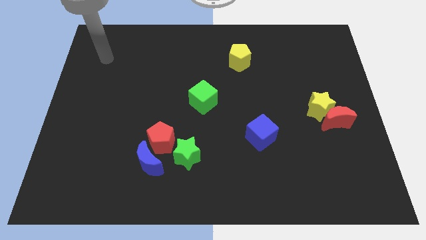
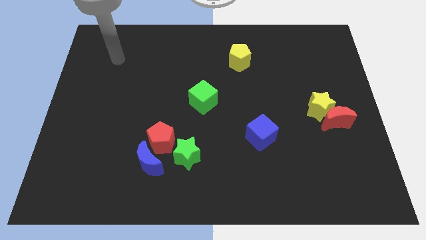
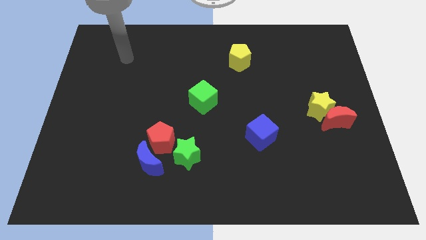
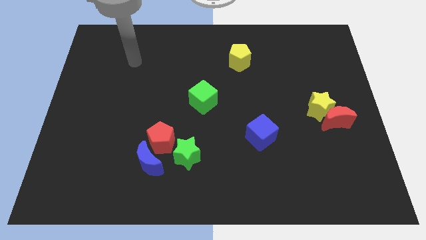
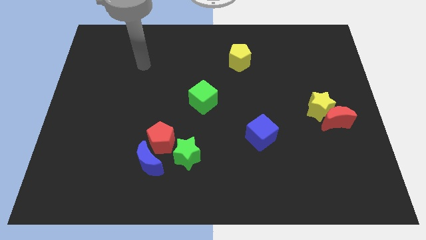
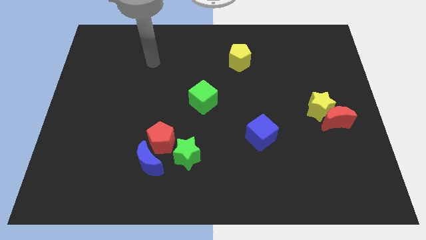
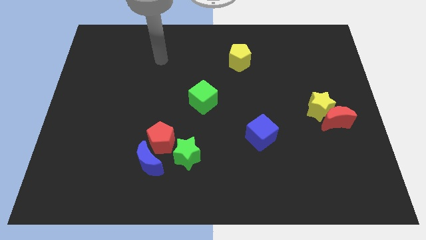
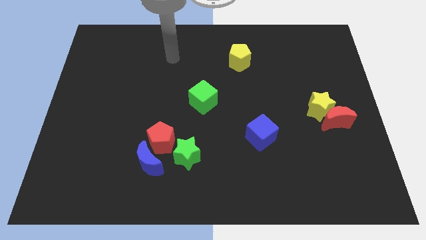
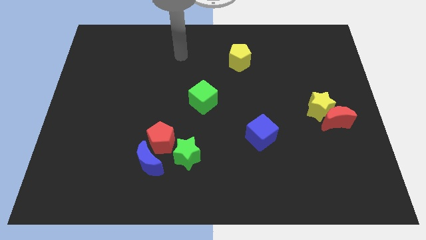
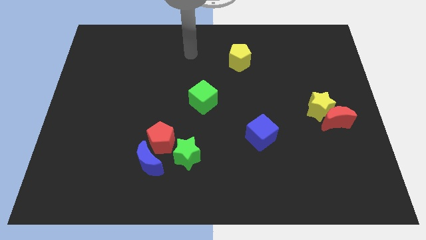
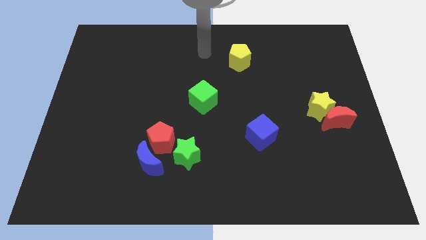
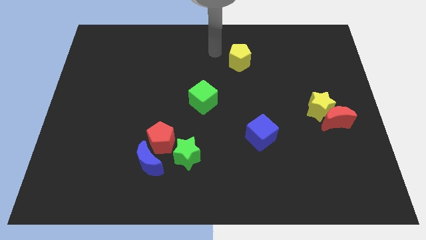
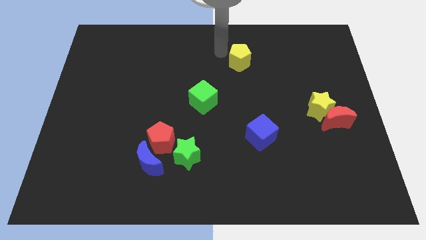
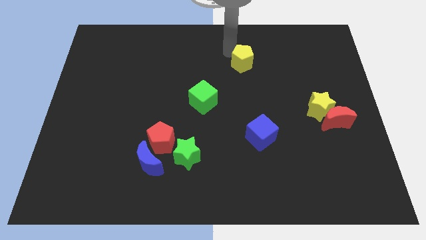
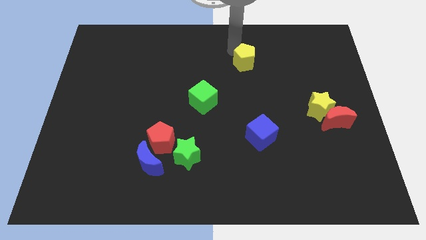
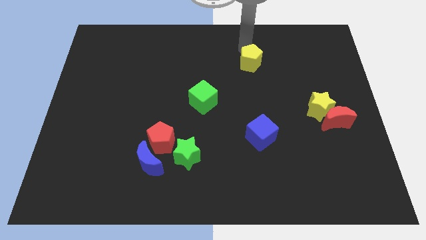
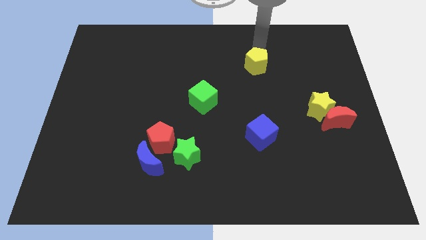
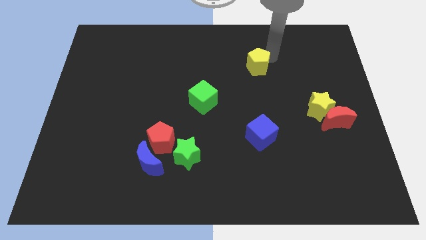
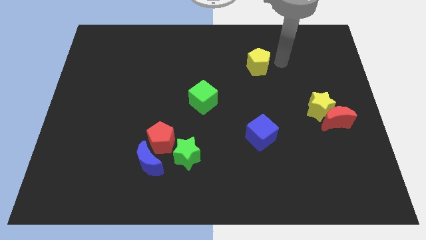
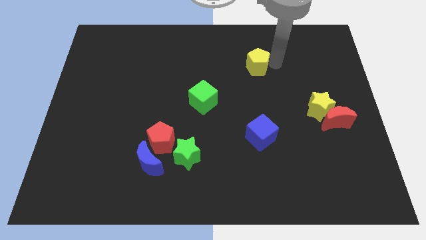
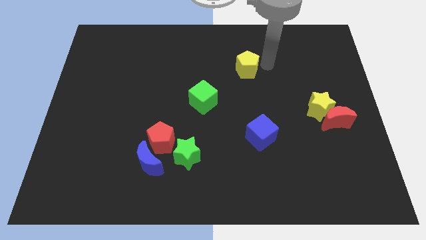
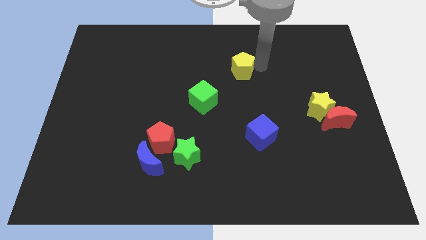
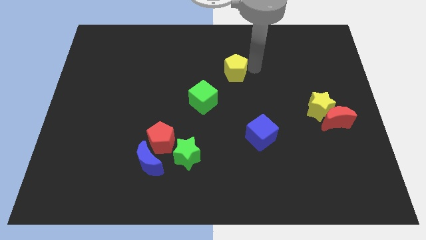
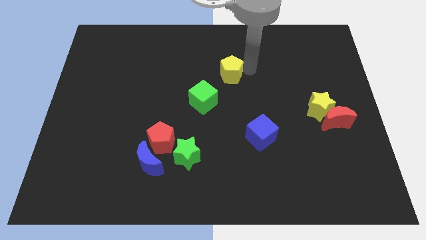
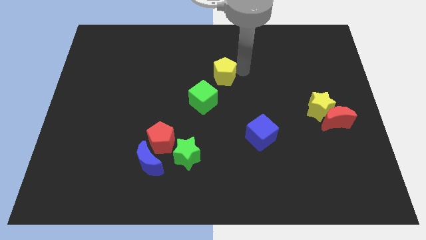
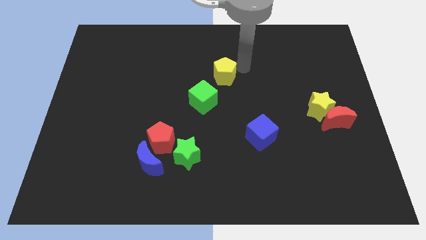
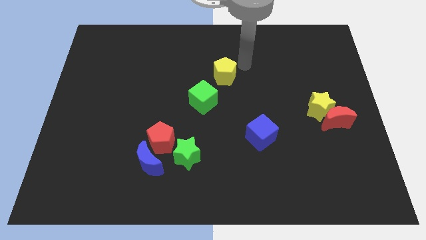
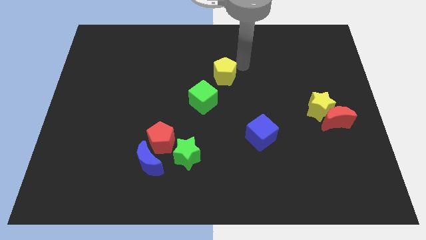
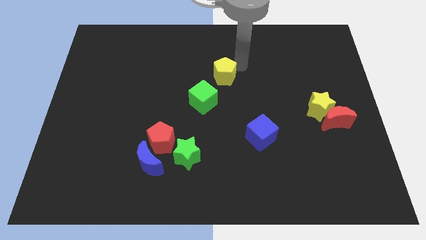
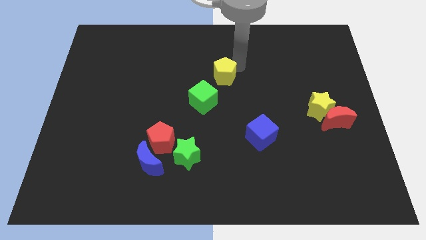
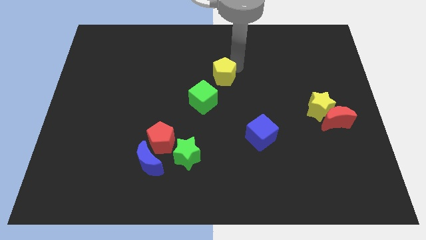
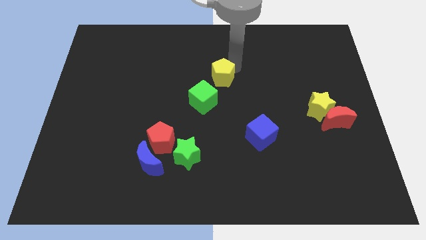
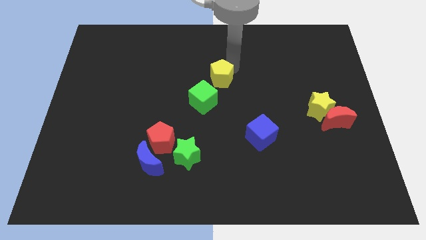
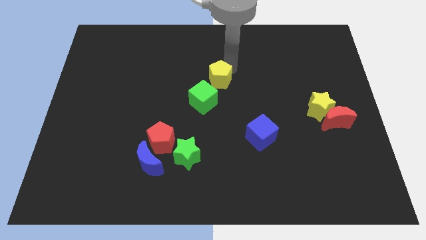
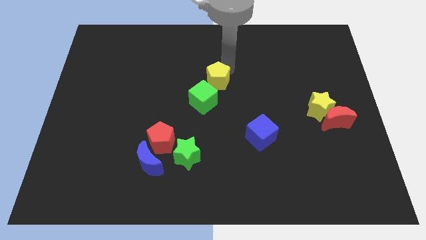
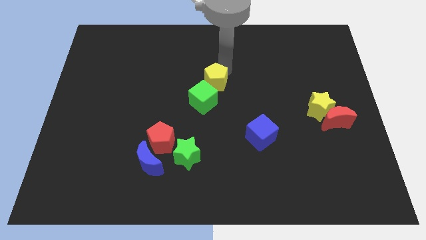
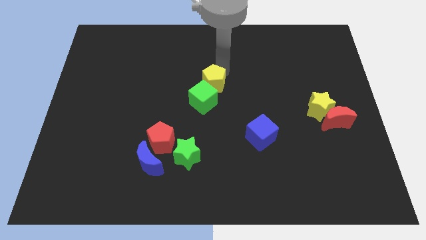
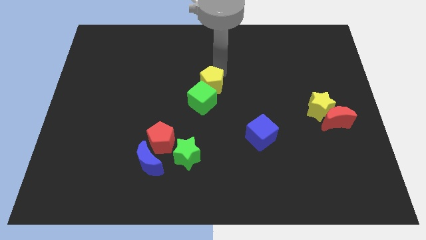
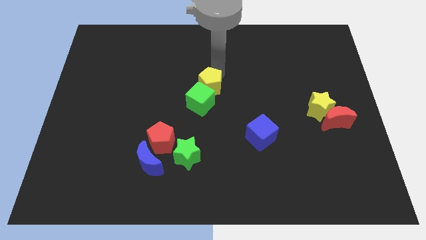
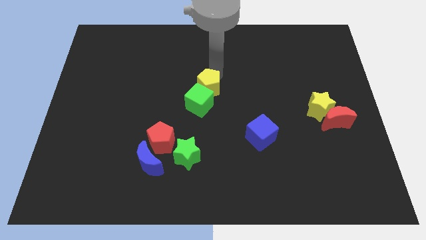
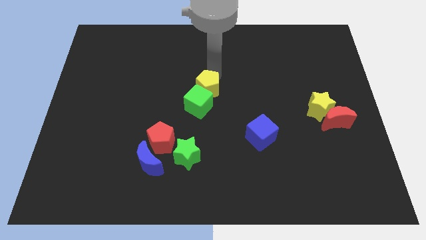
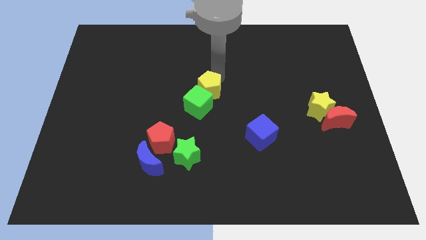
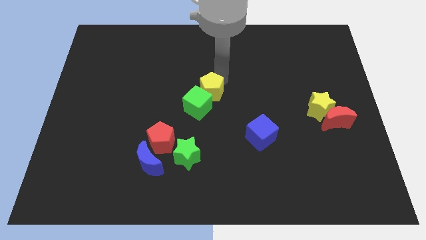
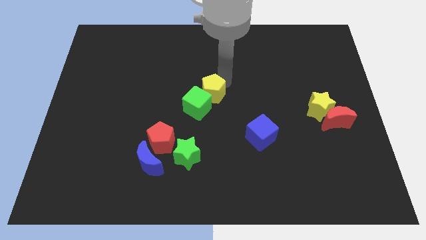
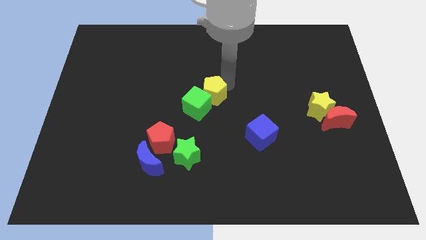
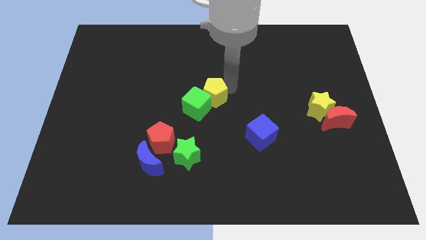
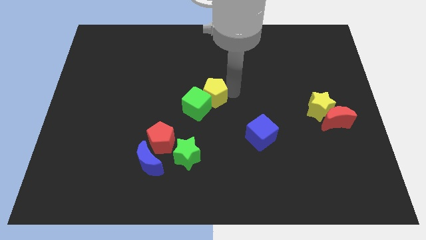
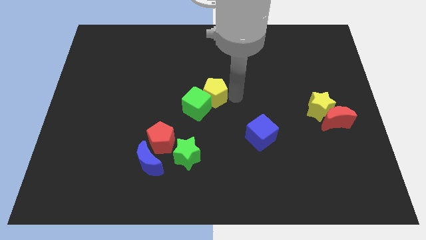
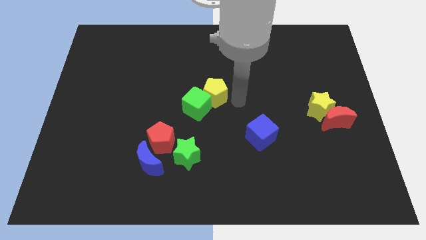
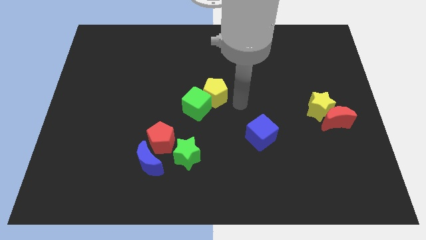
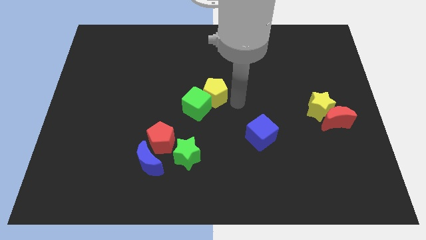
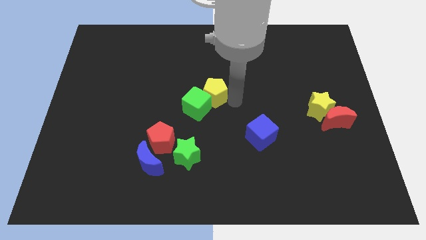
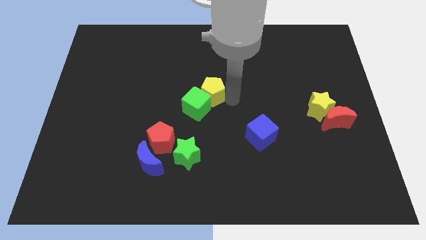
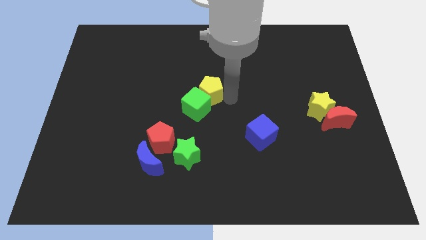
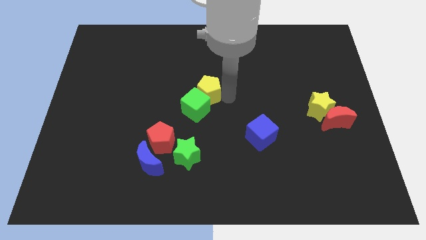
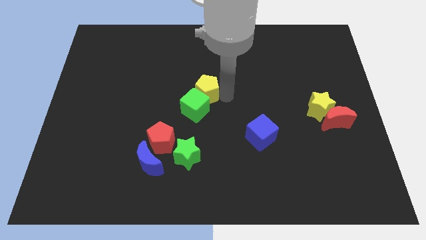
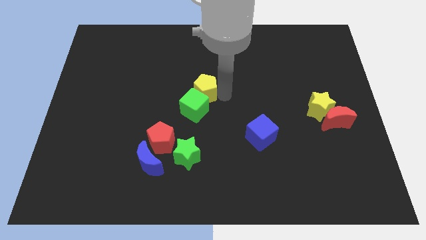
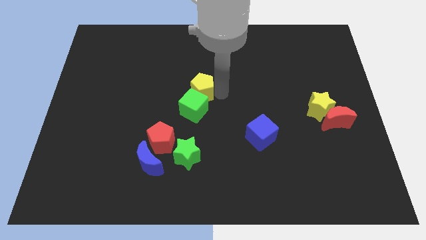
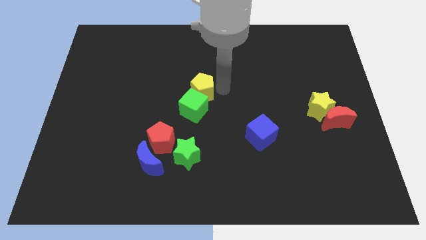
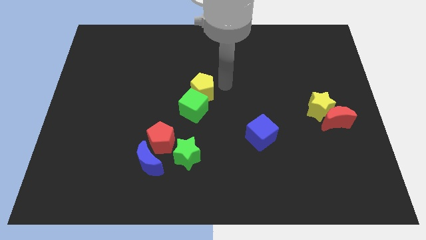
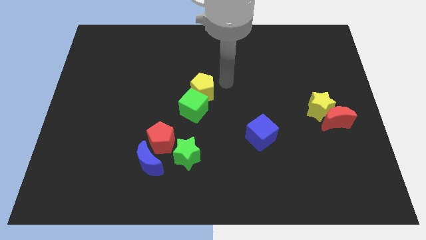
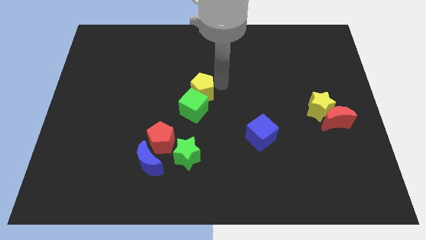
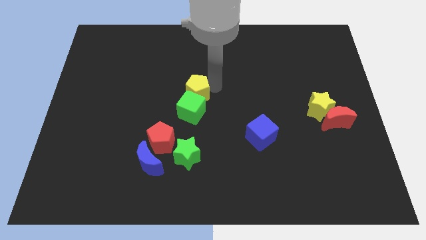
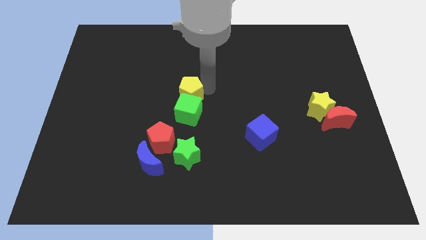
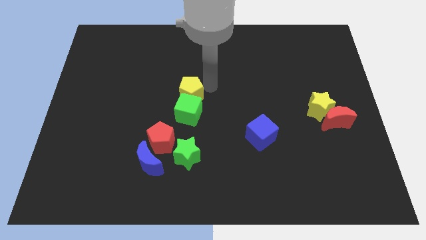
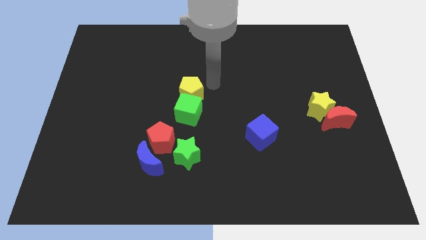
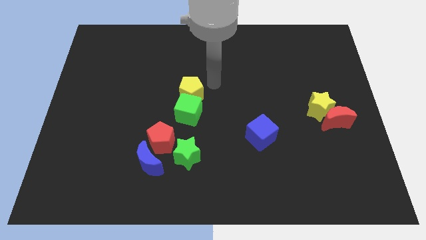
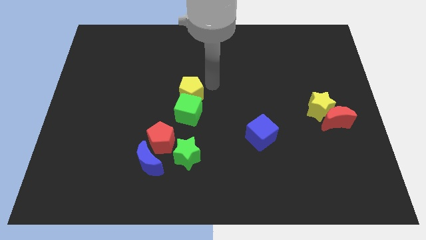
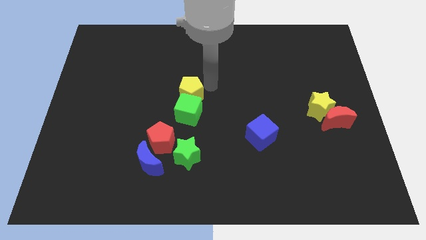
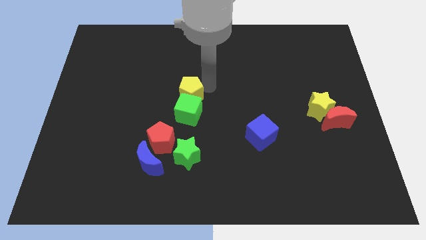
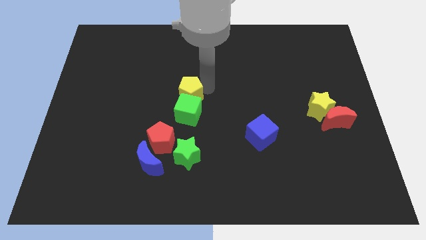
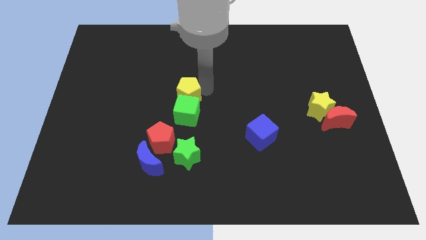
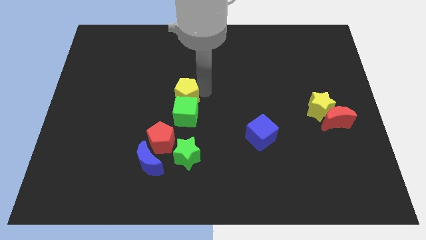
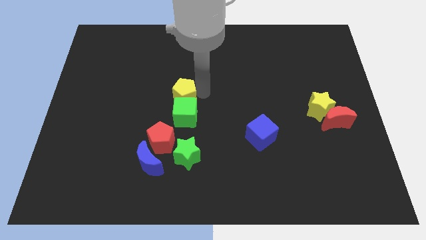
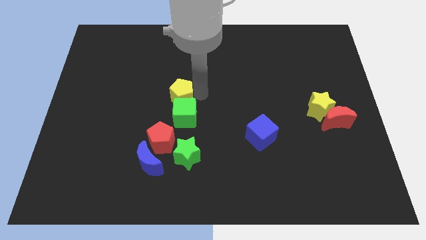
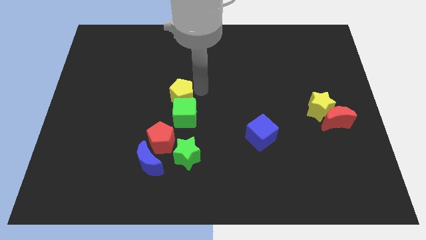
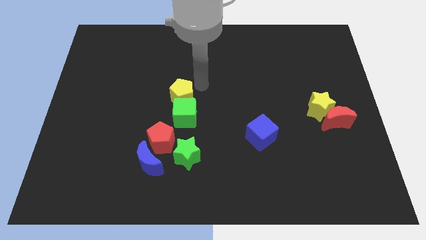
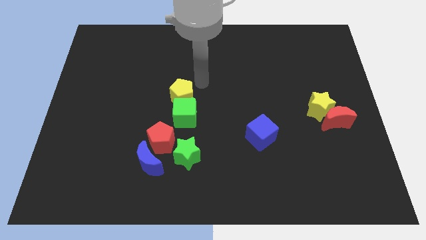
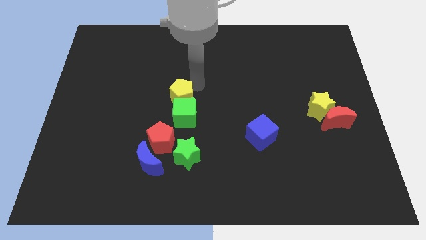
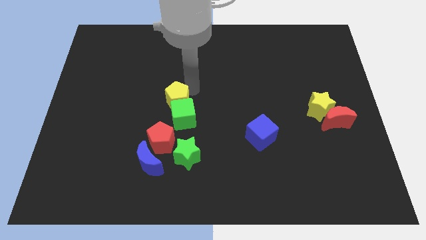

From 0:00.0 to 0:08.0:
slide the yellow pentagon down and to the left diagonally
